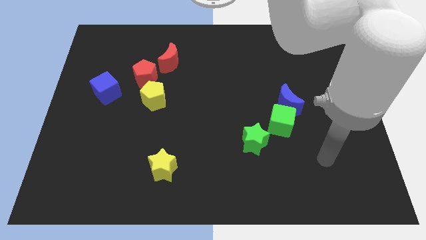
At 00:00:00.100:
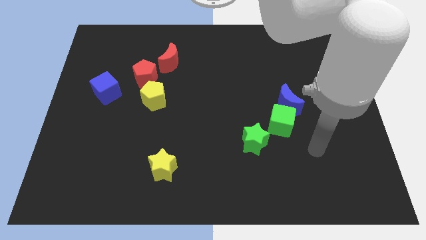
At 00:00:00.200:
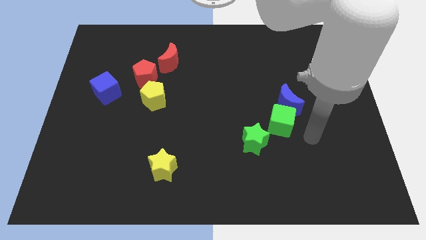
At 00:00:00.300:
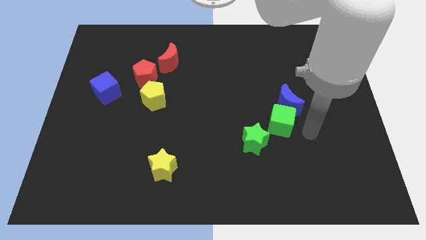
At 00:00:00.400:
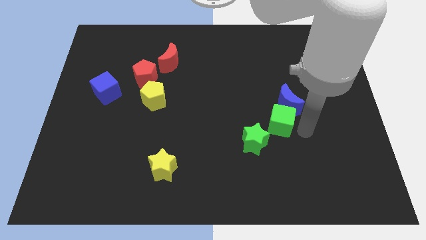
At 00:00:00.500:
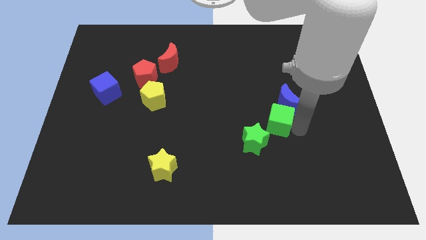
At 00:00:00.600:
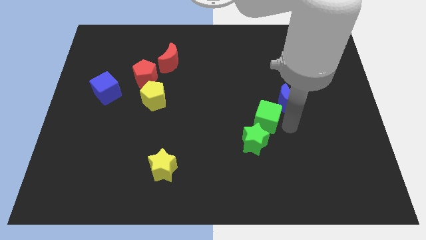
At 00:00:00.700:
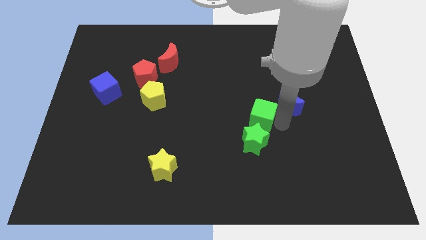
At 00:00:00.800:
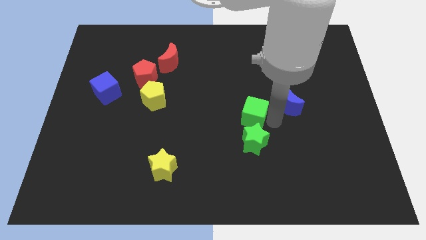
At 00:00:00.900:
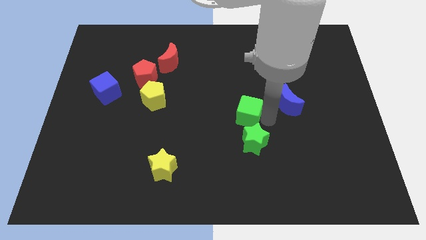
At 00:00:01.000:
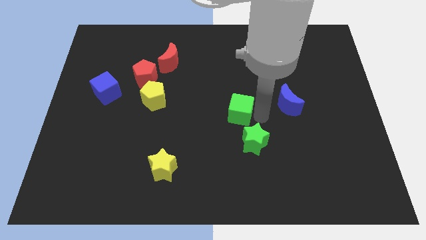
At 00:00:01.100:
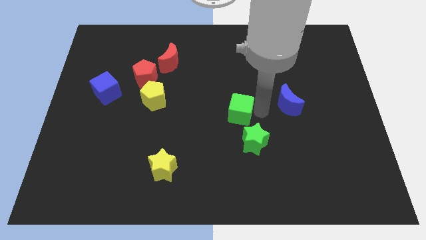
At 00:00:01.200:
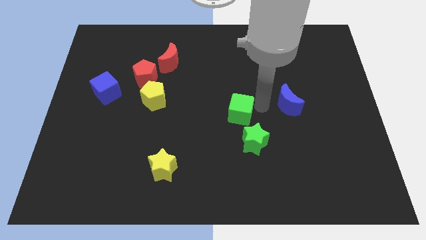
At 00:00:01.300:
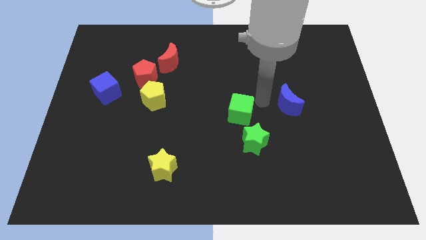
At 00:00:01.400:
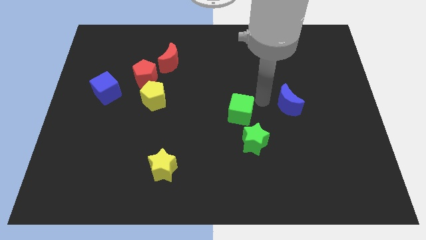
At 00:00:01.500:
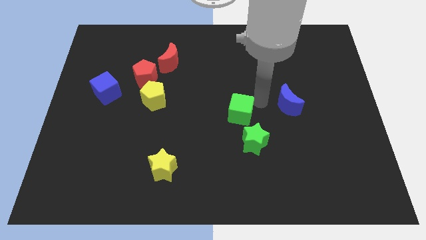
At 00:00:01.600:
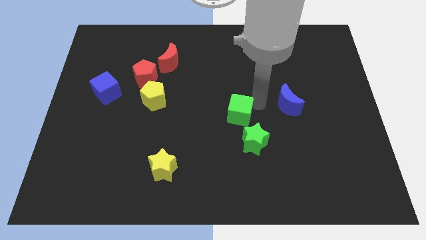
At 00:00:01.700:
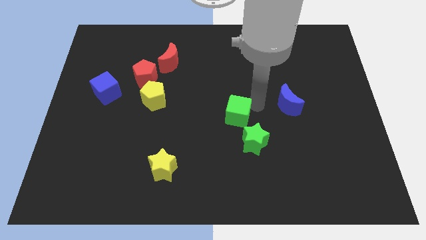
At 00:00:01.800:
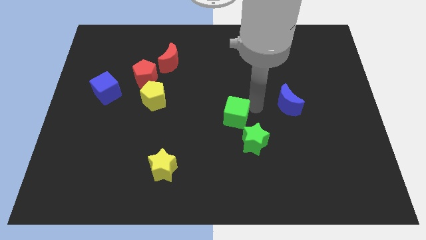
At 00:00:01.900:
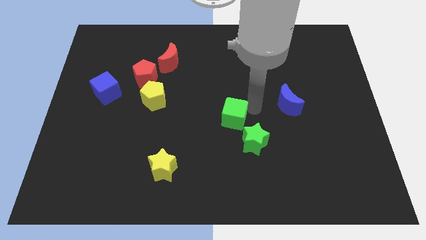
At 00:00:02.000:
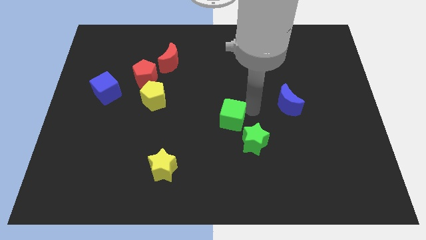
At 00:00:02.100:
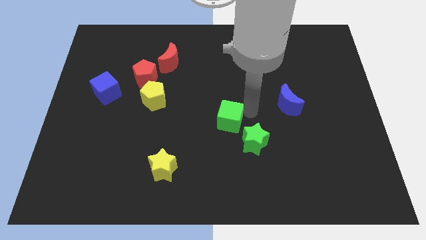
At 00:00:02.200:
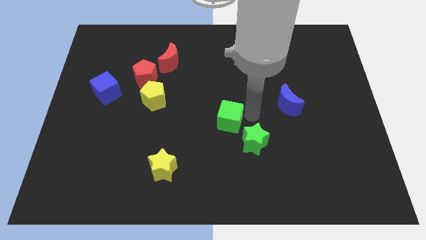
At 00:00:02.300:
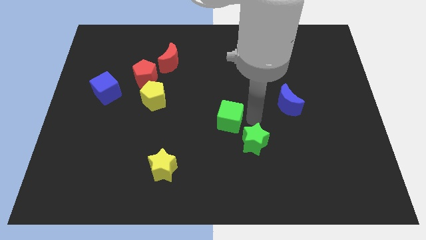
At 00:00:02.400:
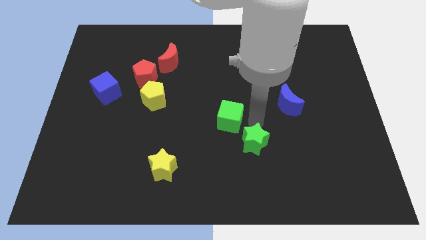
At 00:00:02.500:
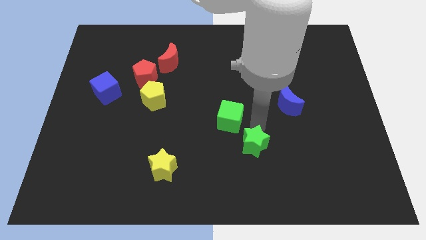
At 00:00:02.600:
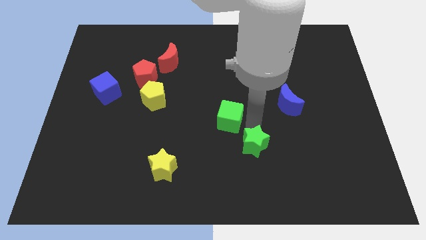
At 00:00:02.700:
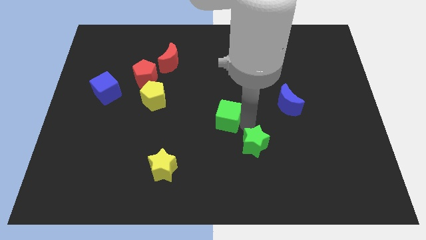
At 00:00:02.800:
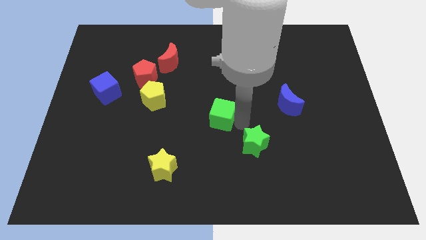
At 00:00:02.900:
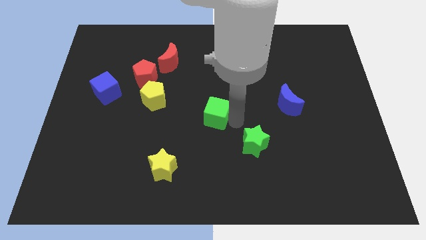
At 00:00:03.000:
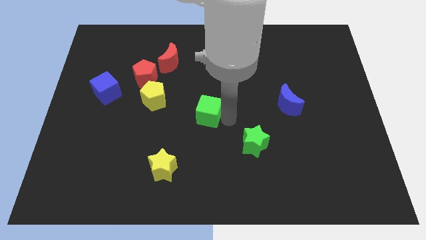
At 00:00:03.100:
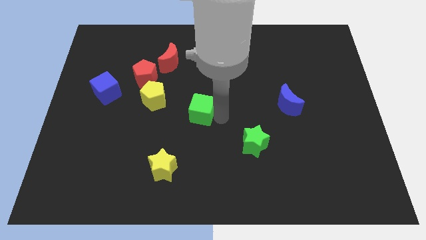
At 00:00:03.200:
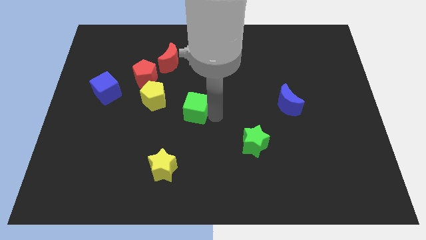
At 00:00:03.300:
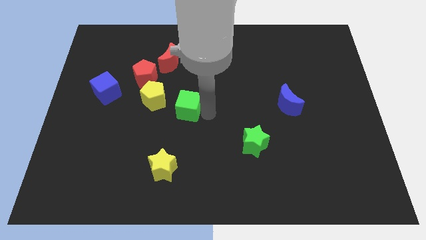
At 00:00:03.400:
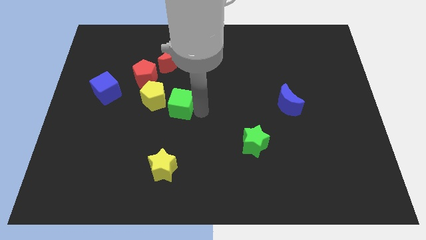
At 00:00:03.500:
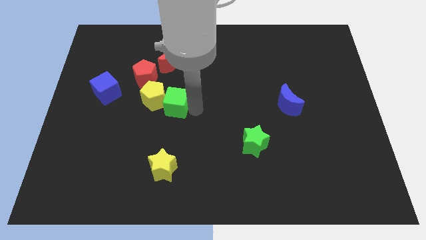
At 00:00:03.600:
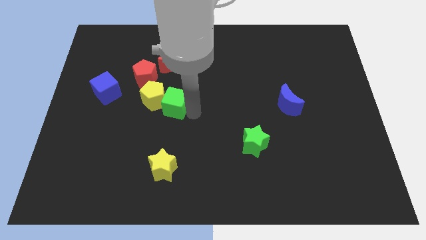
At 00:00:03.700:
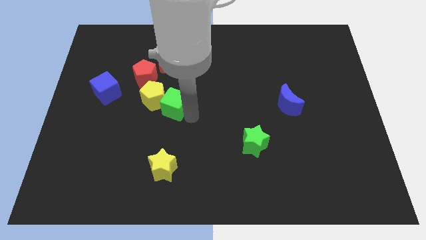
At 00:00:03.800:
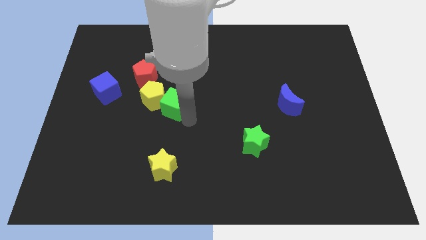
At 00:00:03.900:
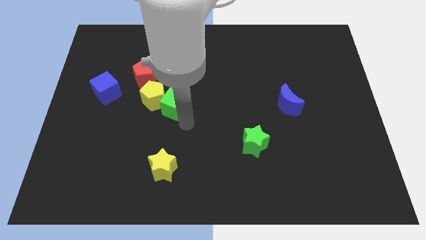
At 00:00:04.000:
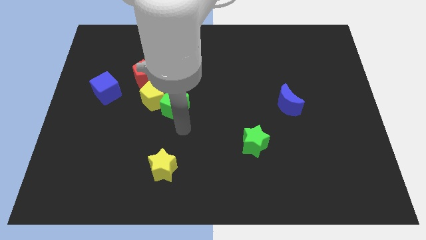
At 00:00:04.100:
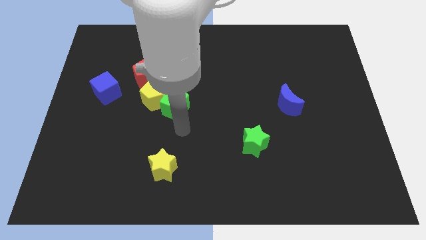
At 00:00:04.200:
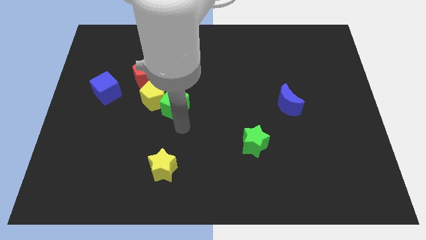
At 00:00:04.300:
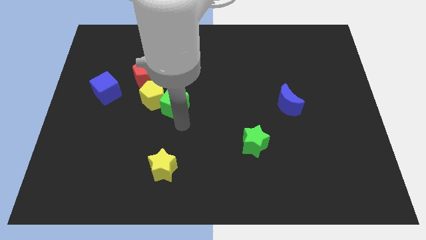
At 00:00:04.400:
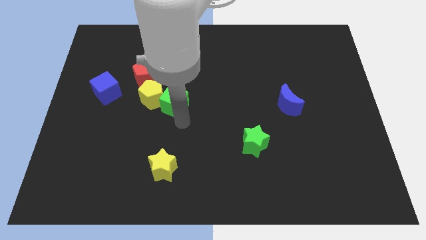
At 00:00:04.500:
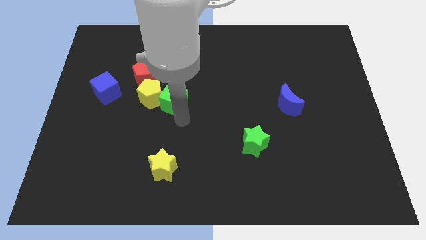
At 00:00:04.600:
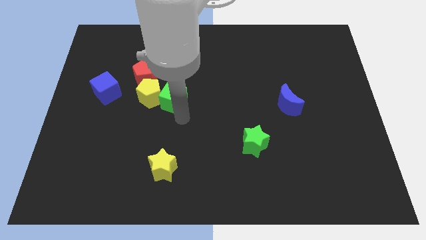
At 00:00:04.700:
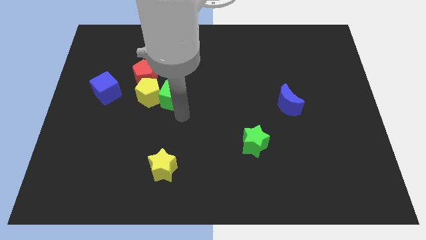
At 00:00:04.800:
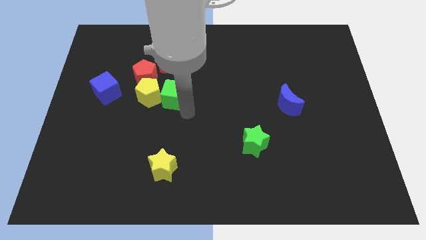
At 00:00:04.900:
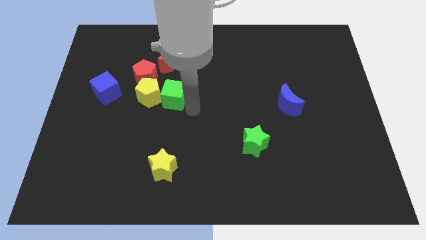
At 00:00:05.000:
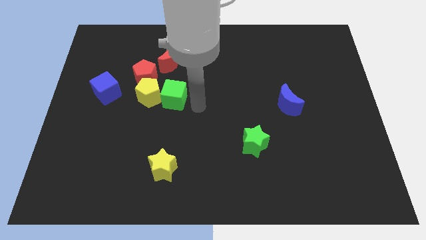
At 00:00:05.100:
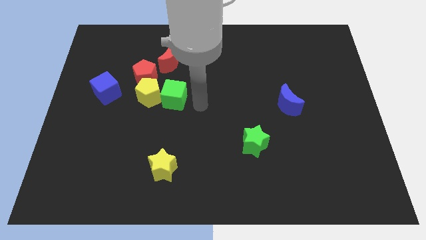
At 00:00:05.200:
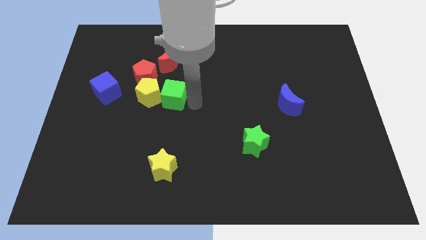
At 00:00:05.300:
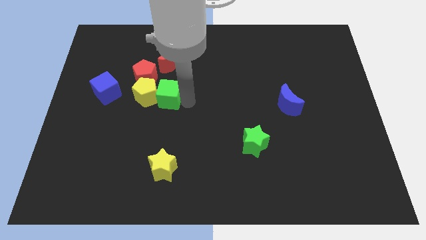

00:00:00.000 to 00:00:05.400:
put the green cube to the right side of the blue cube

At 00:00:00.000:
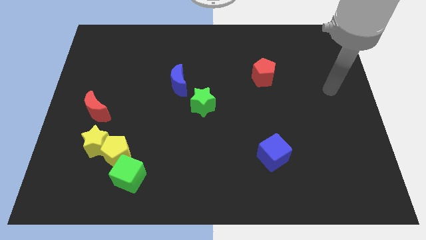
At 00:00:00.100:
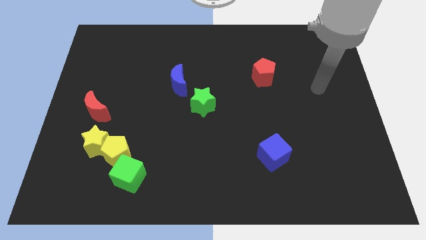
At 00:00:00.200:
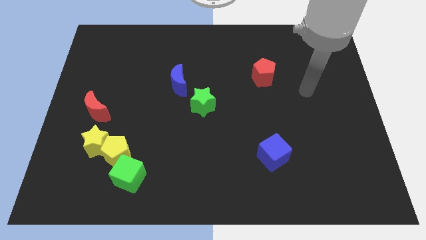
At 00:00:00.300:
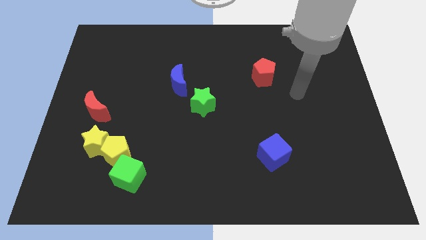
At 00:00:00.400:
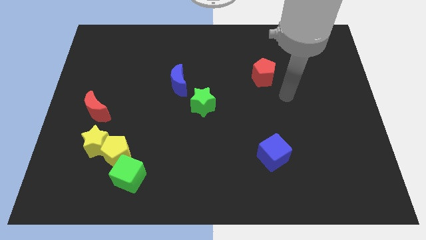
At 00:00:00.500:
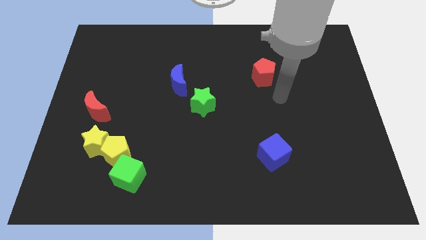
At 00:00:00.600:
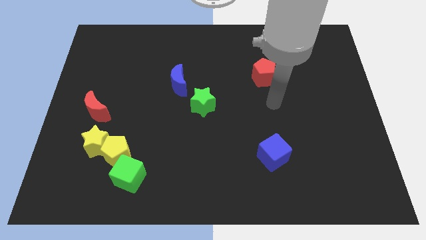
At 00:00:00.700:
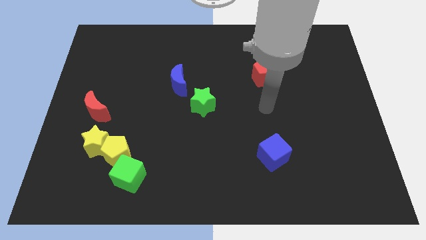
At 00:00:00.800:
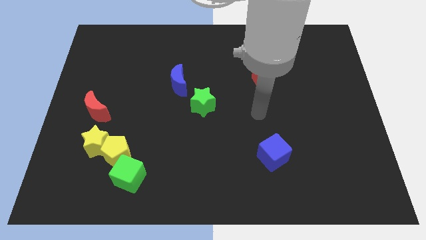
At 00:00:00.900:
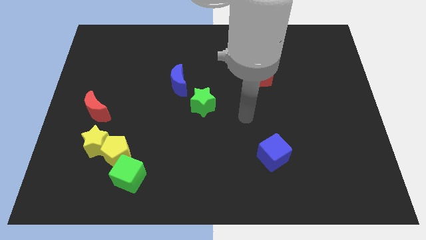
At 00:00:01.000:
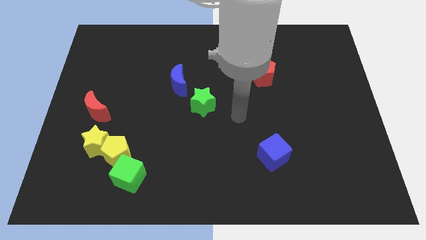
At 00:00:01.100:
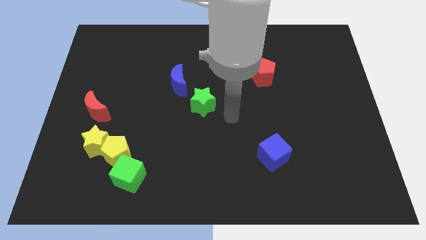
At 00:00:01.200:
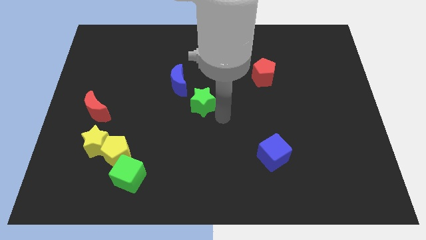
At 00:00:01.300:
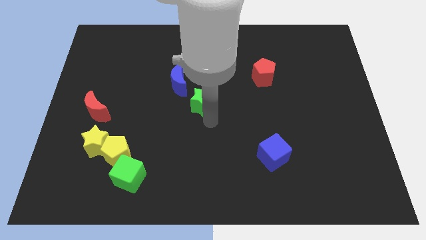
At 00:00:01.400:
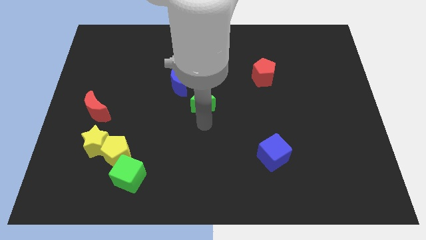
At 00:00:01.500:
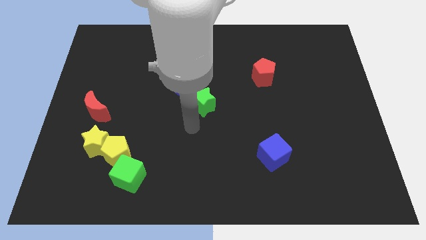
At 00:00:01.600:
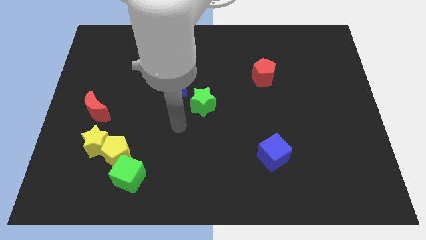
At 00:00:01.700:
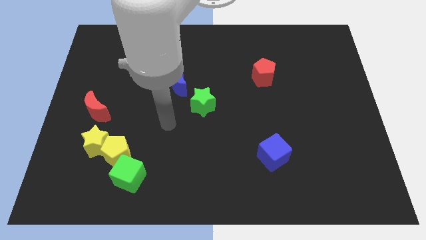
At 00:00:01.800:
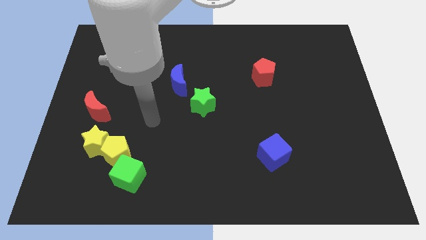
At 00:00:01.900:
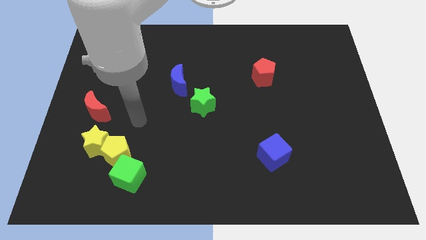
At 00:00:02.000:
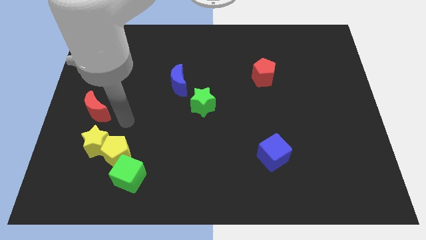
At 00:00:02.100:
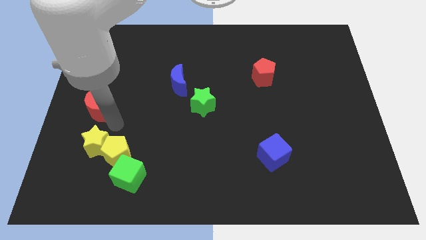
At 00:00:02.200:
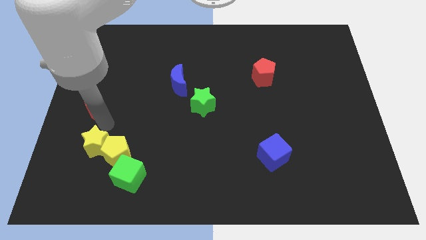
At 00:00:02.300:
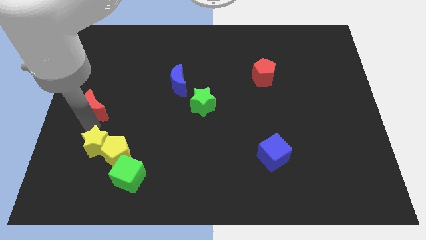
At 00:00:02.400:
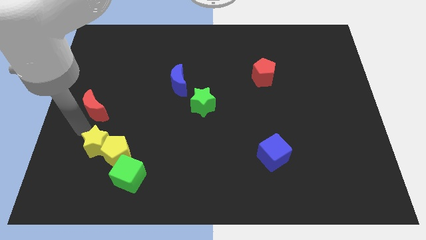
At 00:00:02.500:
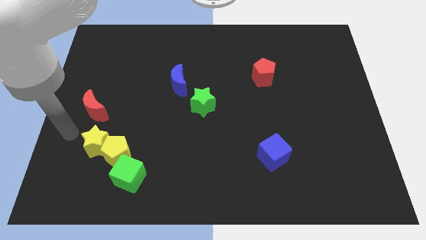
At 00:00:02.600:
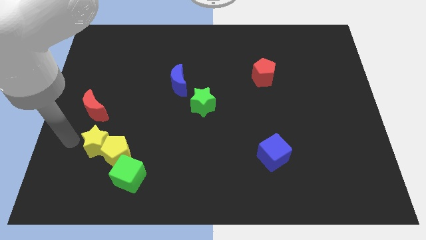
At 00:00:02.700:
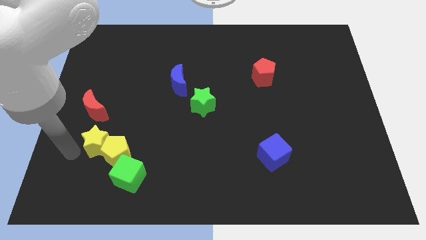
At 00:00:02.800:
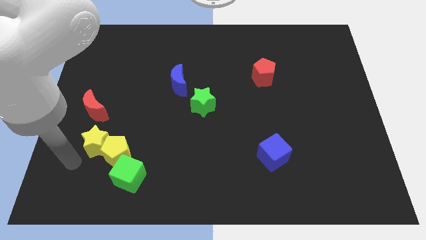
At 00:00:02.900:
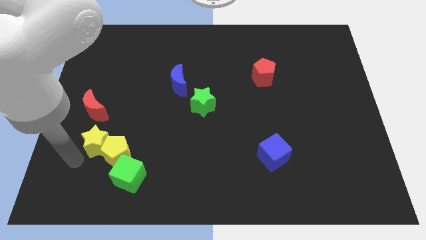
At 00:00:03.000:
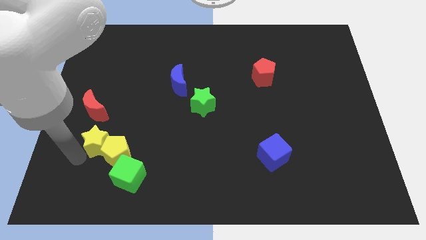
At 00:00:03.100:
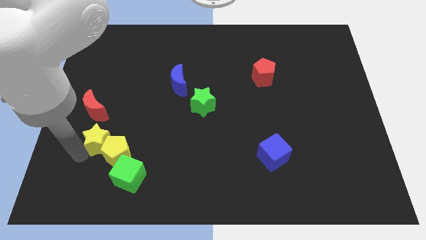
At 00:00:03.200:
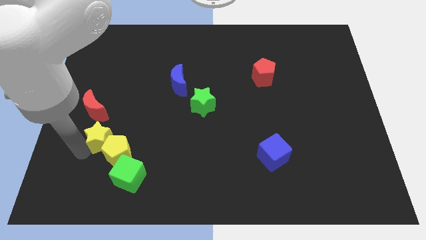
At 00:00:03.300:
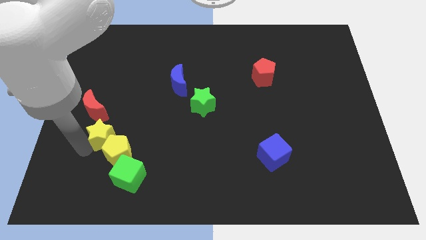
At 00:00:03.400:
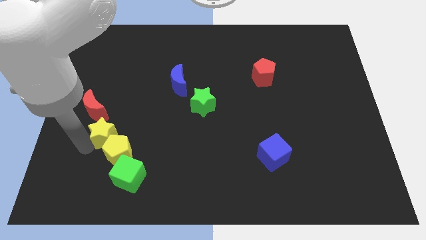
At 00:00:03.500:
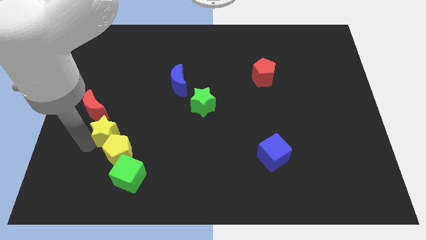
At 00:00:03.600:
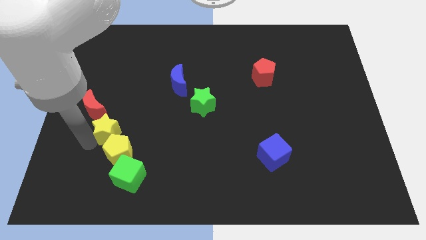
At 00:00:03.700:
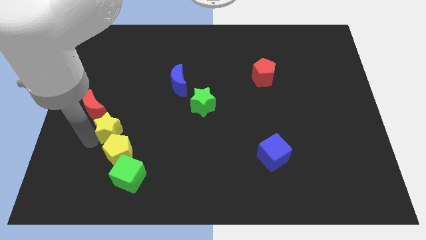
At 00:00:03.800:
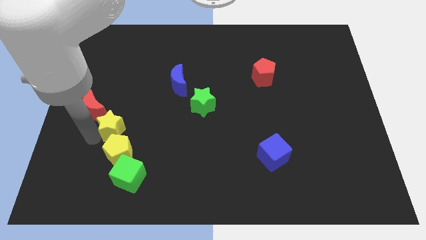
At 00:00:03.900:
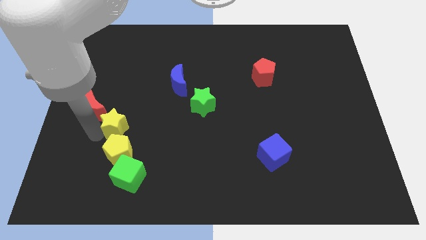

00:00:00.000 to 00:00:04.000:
put the yellow star right of the red moon
